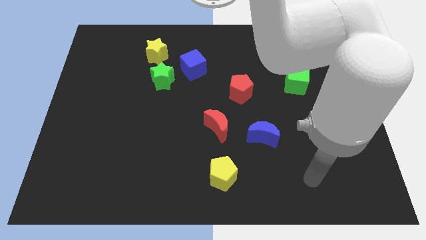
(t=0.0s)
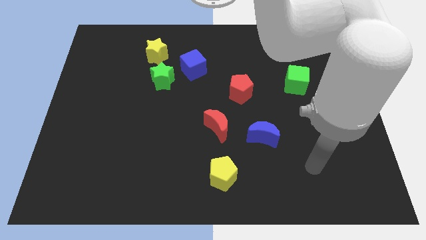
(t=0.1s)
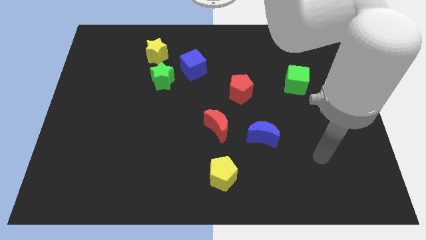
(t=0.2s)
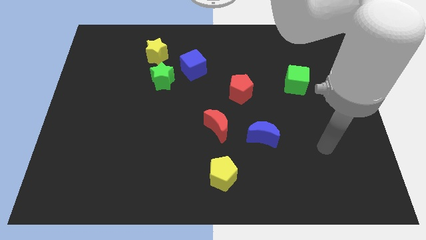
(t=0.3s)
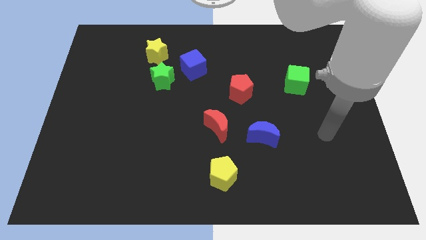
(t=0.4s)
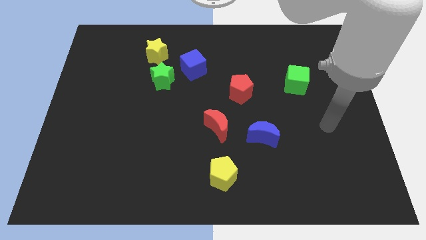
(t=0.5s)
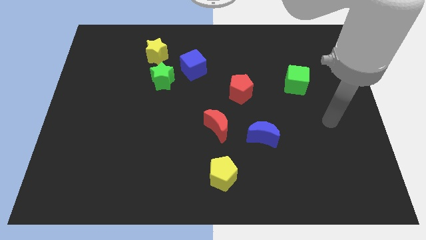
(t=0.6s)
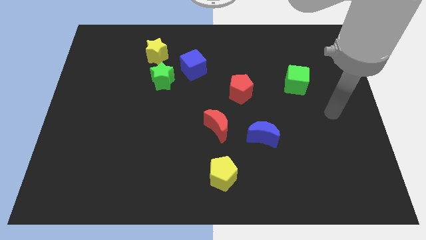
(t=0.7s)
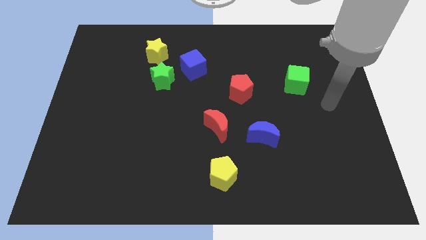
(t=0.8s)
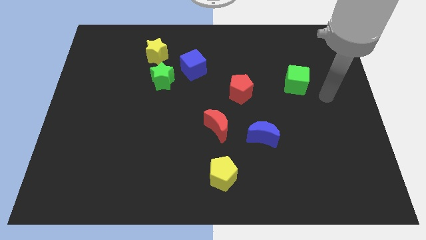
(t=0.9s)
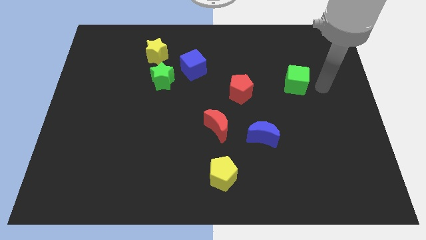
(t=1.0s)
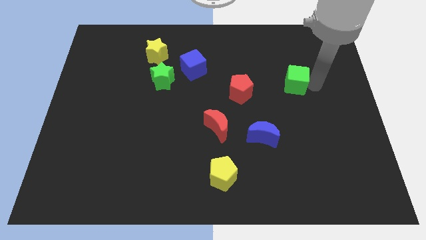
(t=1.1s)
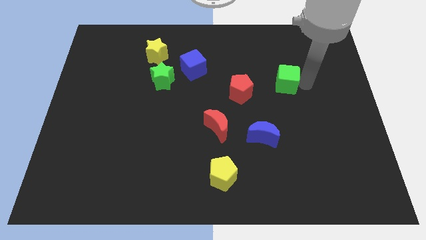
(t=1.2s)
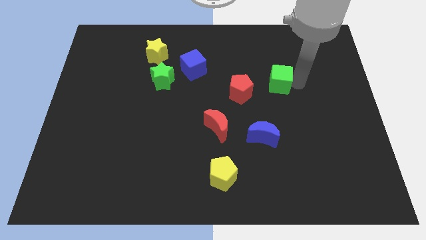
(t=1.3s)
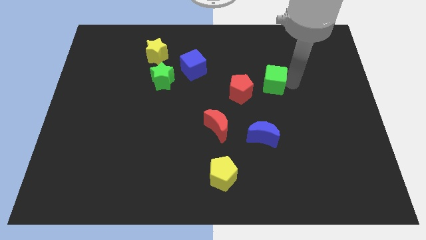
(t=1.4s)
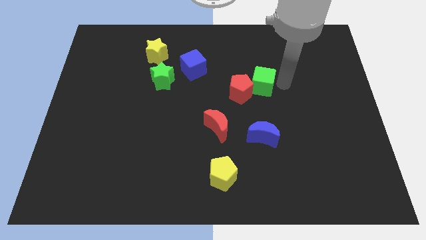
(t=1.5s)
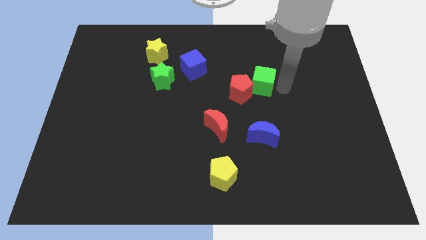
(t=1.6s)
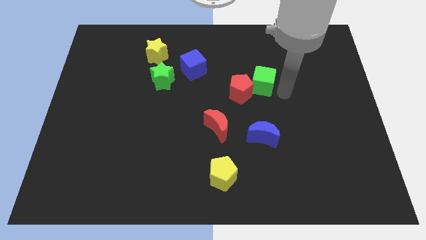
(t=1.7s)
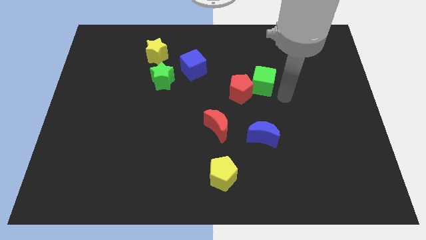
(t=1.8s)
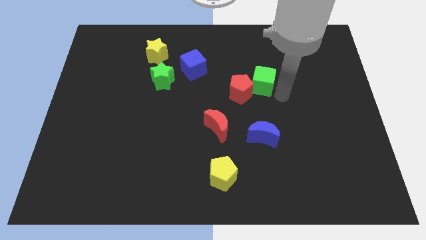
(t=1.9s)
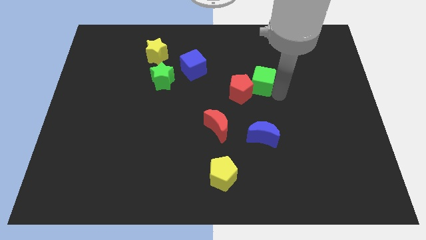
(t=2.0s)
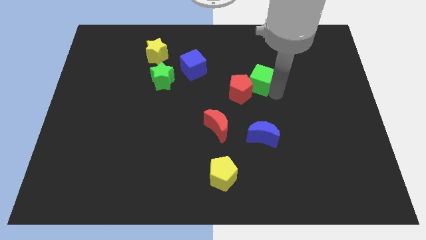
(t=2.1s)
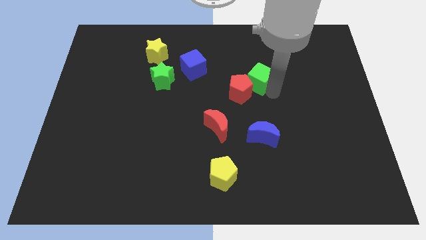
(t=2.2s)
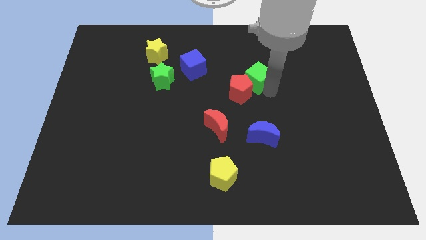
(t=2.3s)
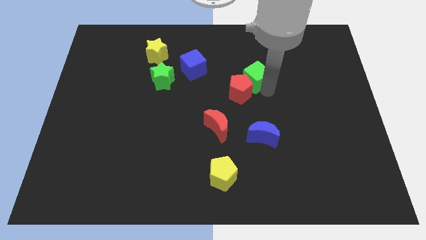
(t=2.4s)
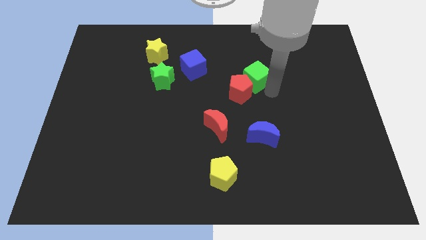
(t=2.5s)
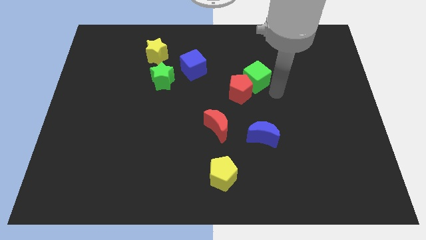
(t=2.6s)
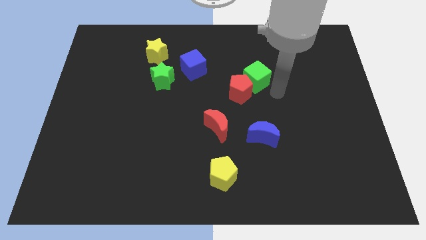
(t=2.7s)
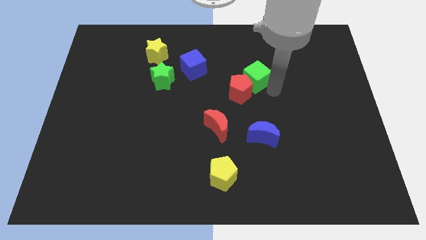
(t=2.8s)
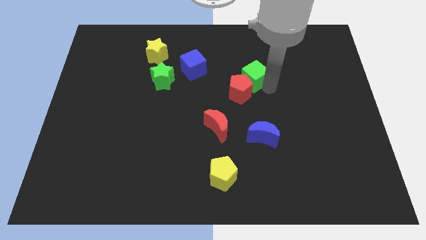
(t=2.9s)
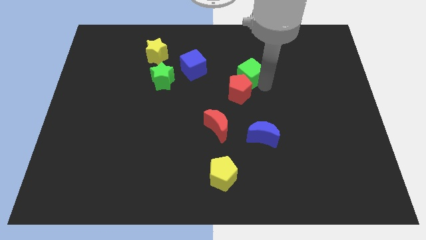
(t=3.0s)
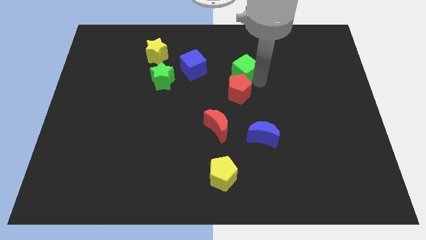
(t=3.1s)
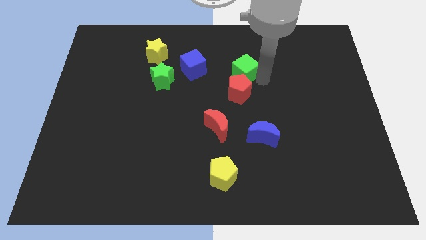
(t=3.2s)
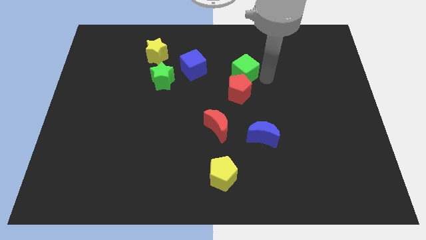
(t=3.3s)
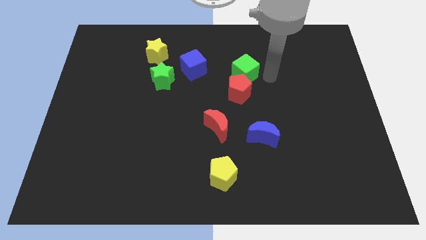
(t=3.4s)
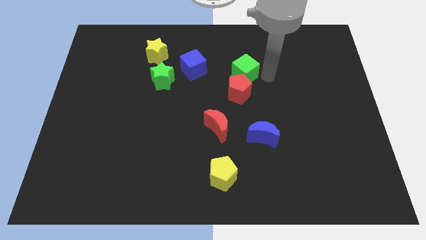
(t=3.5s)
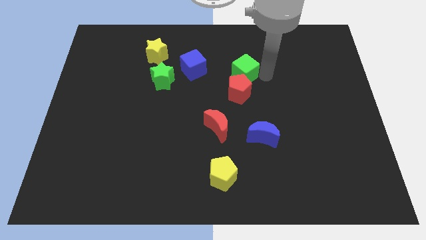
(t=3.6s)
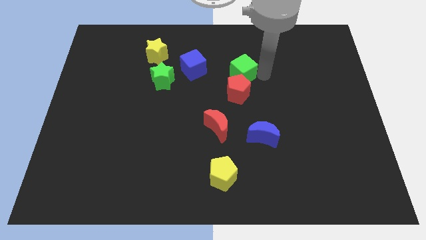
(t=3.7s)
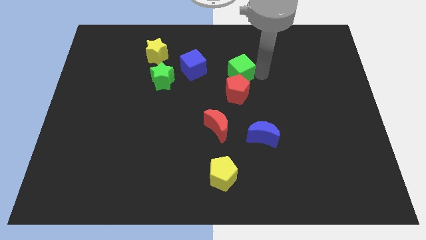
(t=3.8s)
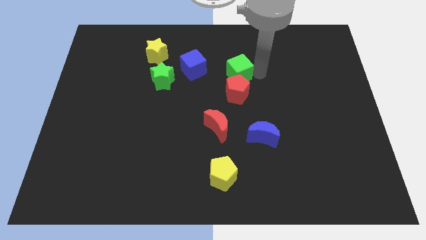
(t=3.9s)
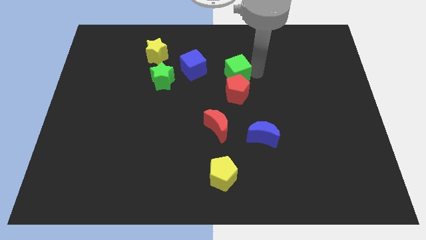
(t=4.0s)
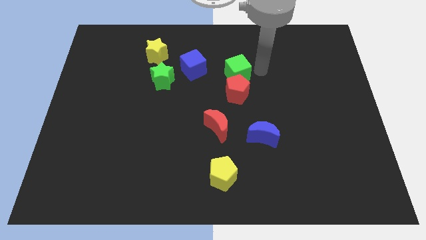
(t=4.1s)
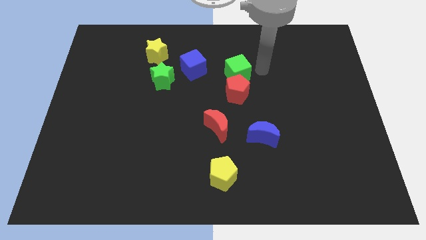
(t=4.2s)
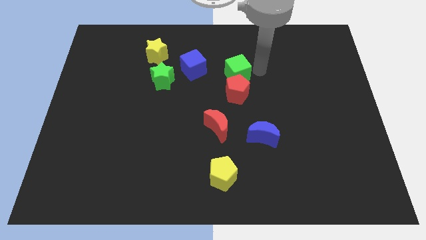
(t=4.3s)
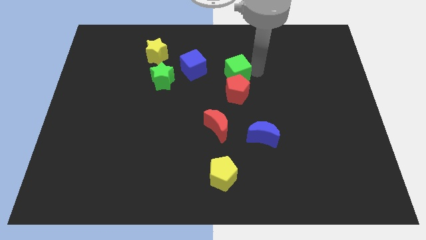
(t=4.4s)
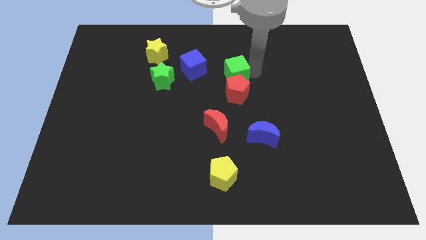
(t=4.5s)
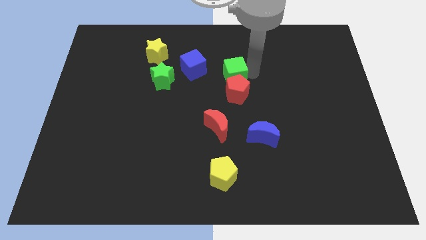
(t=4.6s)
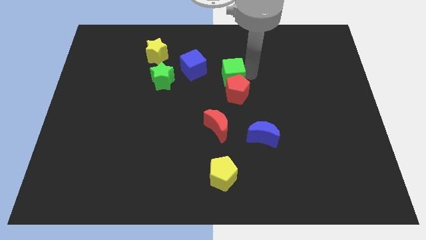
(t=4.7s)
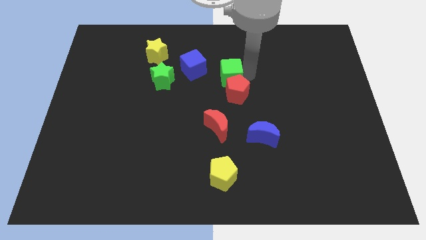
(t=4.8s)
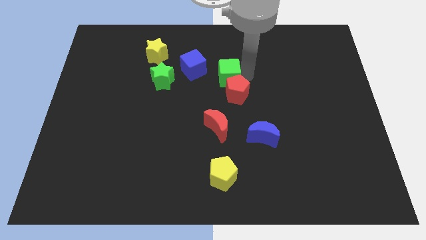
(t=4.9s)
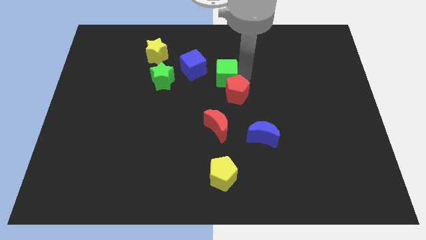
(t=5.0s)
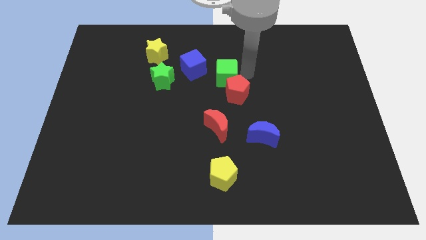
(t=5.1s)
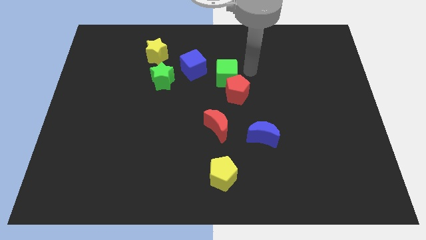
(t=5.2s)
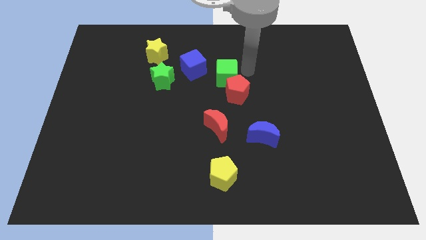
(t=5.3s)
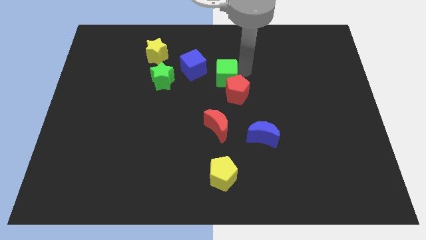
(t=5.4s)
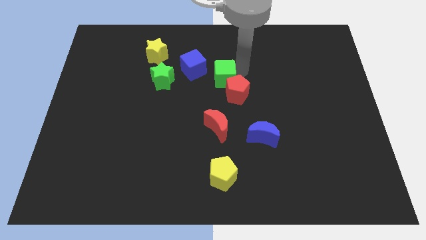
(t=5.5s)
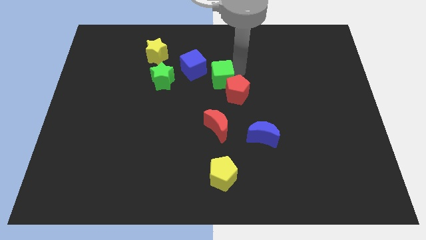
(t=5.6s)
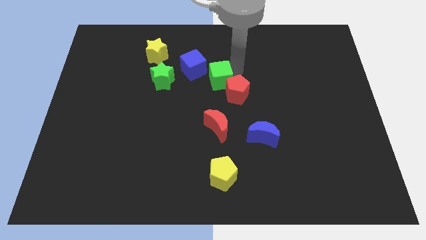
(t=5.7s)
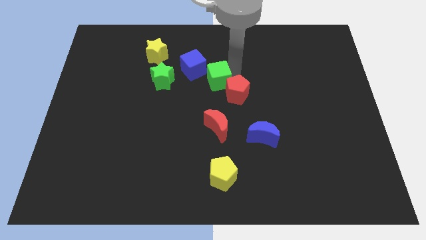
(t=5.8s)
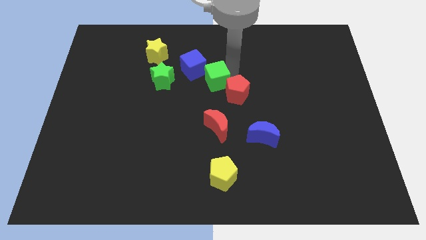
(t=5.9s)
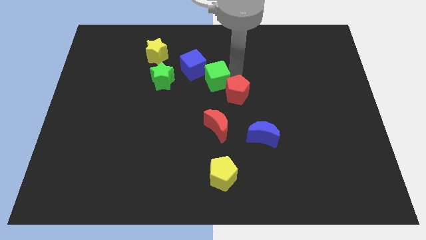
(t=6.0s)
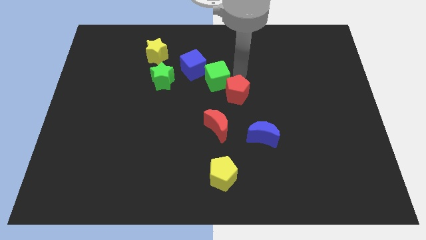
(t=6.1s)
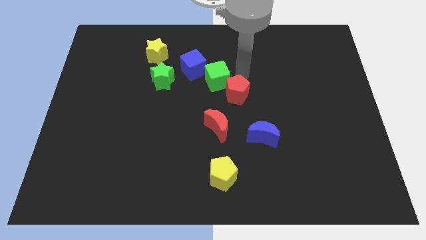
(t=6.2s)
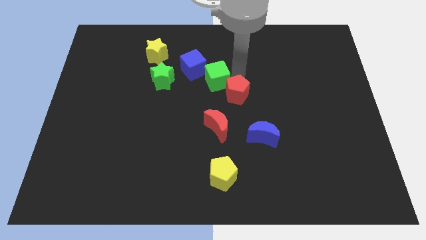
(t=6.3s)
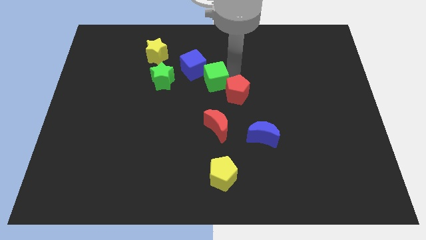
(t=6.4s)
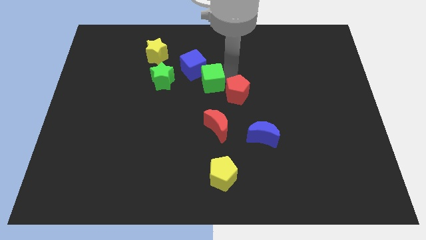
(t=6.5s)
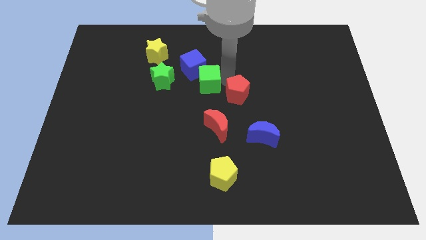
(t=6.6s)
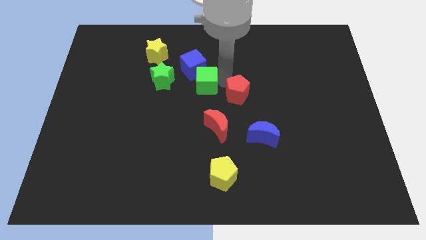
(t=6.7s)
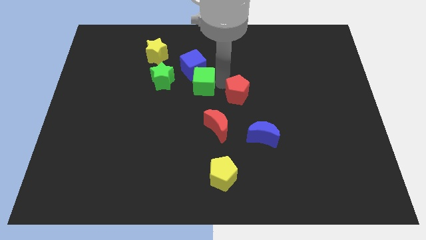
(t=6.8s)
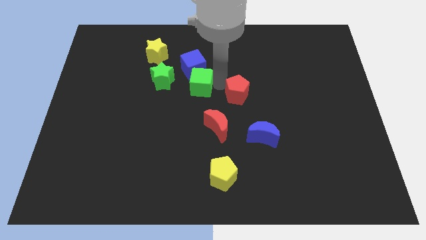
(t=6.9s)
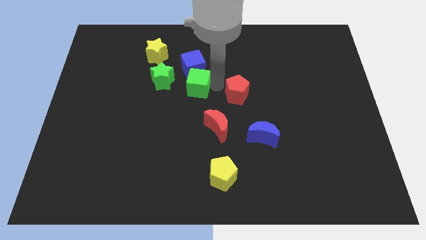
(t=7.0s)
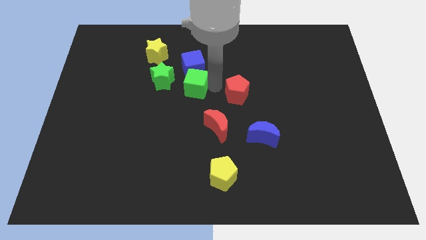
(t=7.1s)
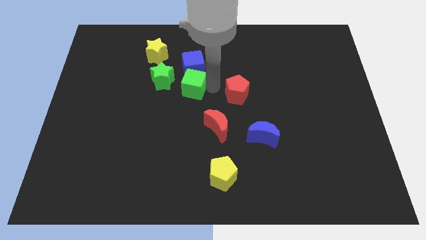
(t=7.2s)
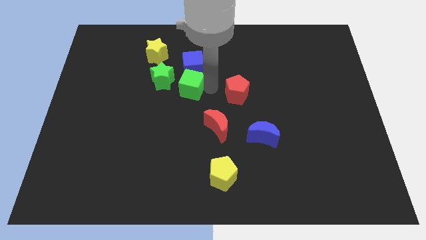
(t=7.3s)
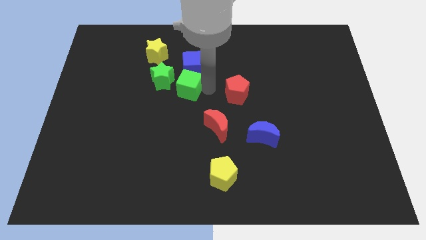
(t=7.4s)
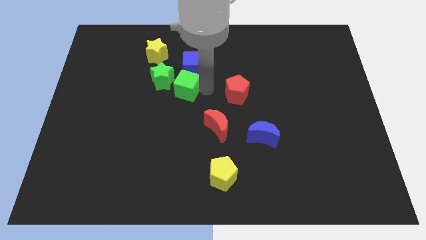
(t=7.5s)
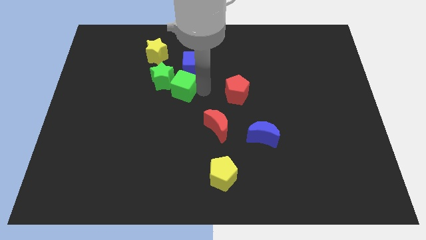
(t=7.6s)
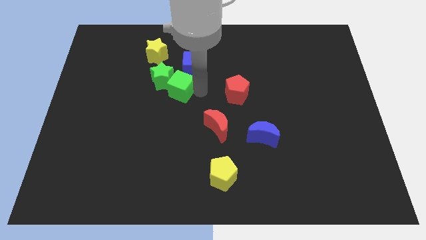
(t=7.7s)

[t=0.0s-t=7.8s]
push the green cube to the green star
